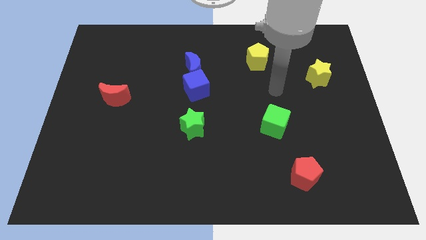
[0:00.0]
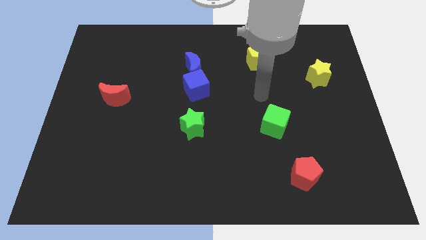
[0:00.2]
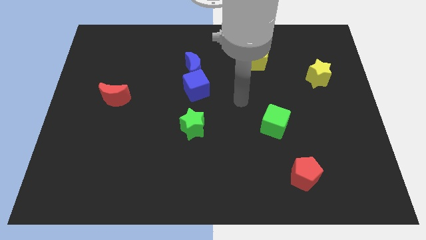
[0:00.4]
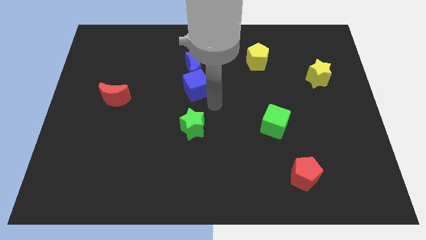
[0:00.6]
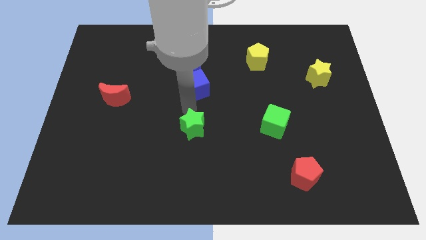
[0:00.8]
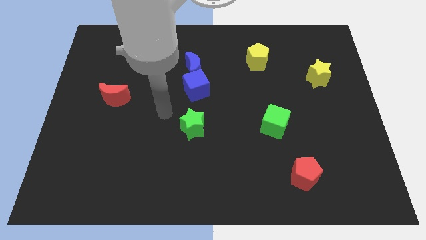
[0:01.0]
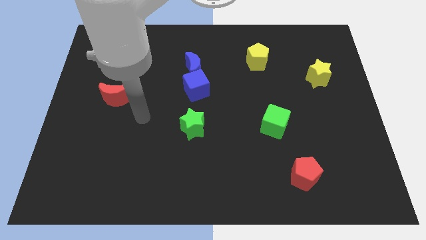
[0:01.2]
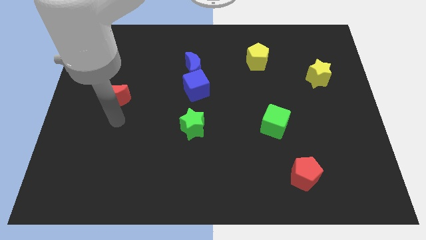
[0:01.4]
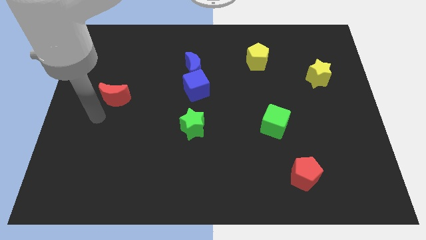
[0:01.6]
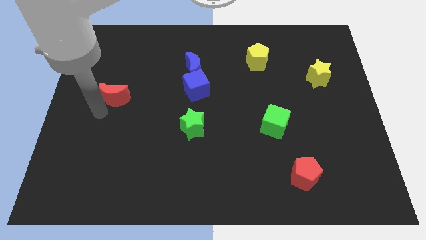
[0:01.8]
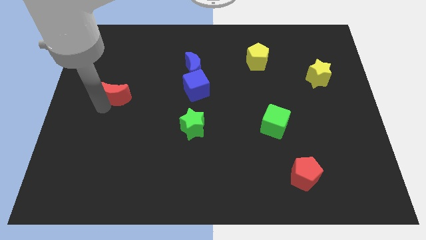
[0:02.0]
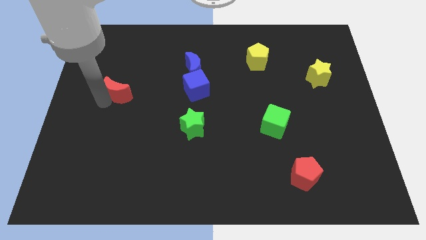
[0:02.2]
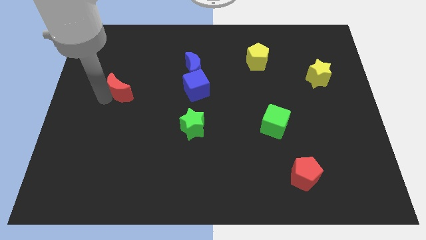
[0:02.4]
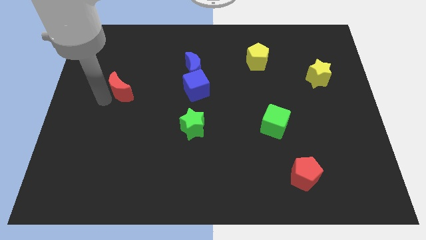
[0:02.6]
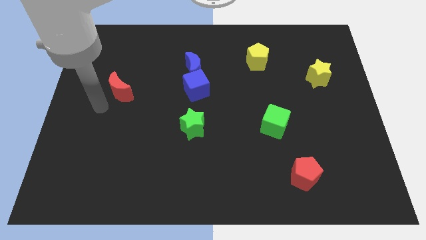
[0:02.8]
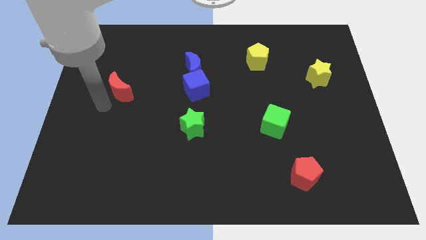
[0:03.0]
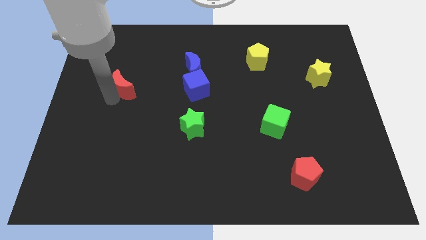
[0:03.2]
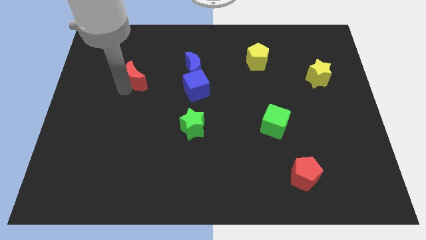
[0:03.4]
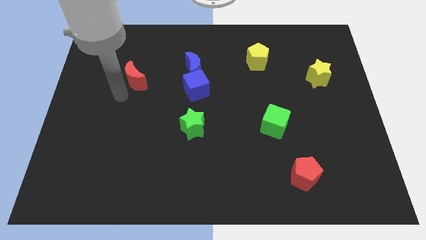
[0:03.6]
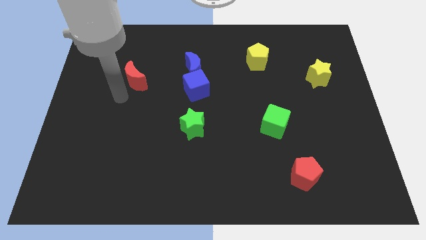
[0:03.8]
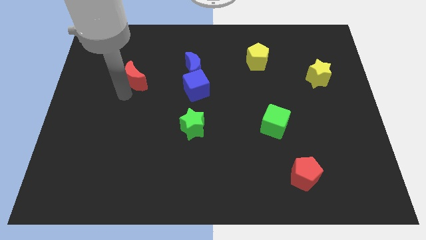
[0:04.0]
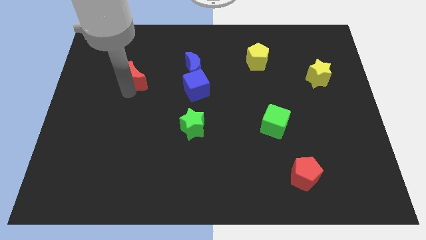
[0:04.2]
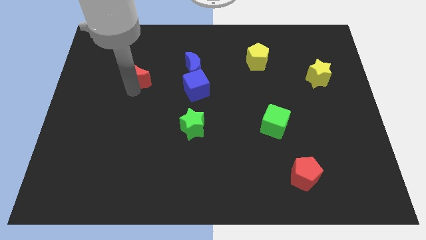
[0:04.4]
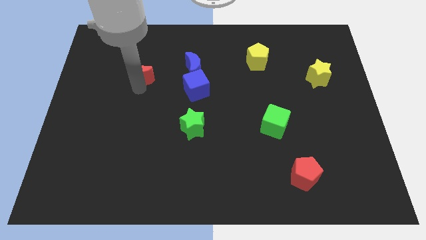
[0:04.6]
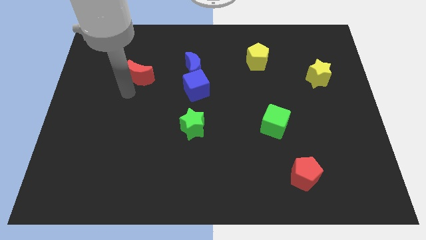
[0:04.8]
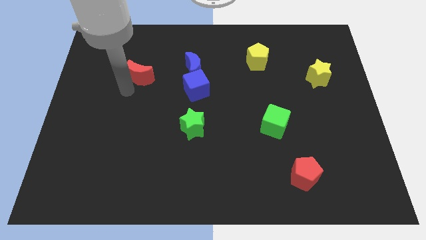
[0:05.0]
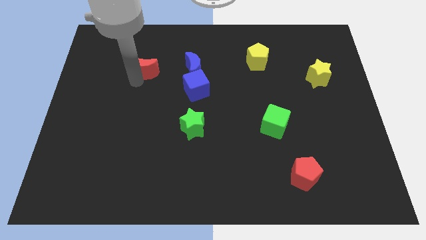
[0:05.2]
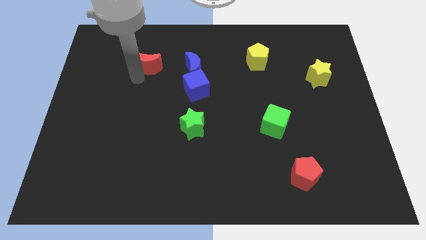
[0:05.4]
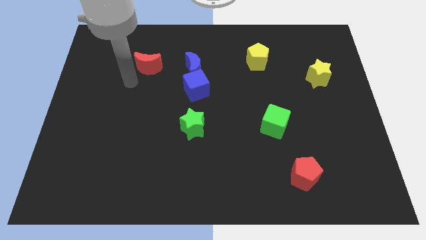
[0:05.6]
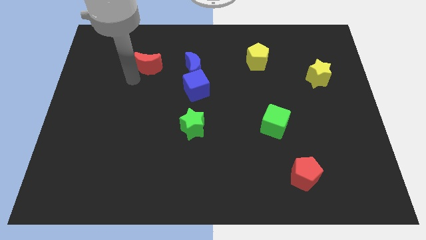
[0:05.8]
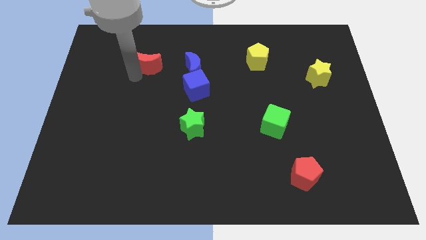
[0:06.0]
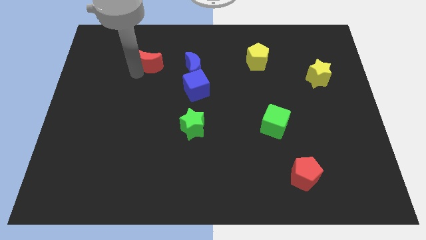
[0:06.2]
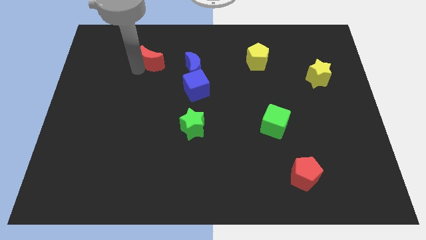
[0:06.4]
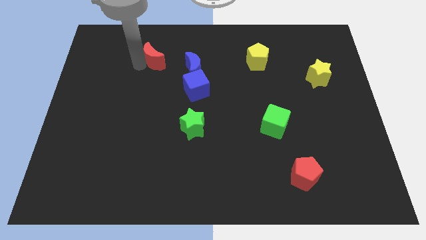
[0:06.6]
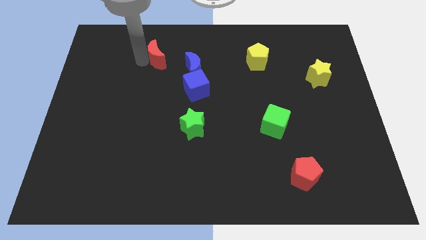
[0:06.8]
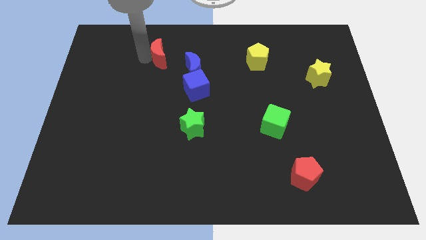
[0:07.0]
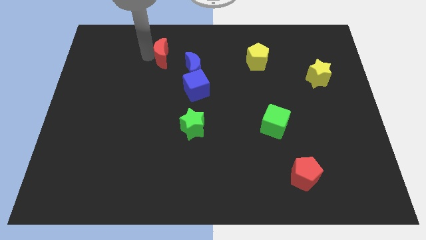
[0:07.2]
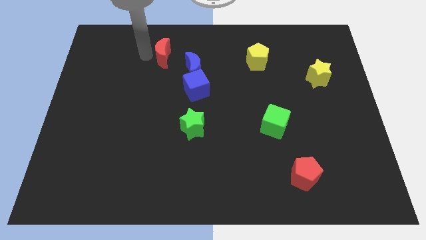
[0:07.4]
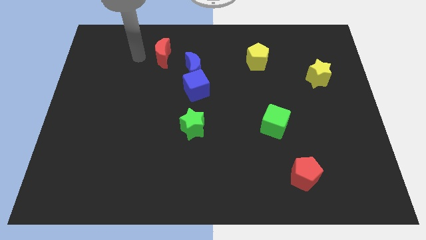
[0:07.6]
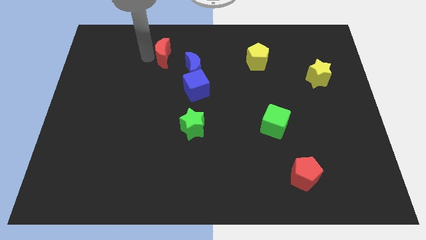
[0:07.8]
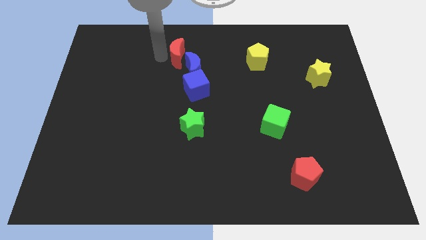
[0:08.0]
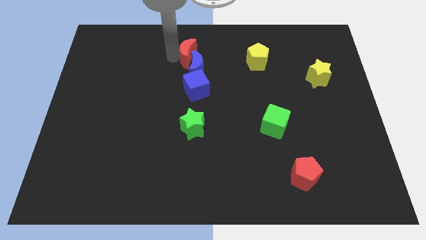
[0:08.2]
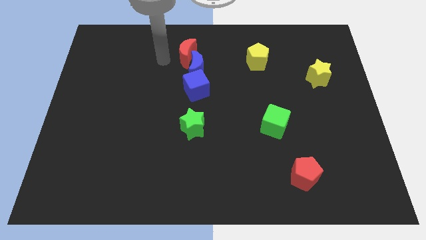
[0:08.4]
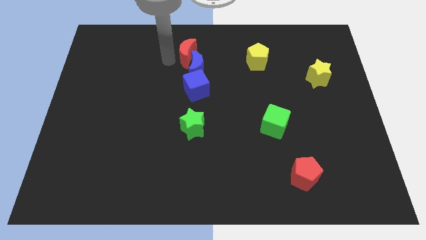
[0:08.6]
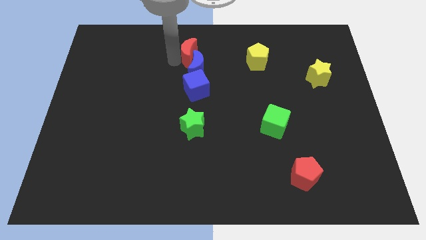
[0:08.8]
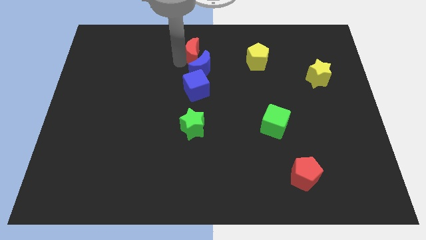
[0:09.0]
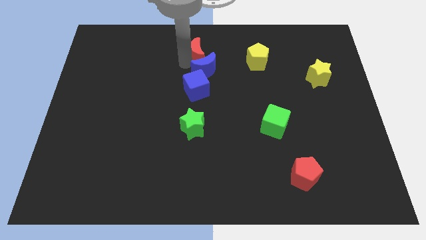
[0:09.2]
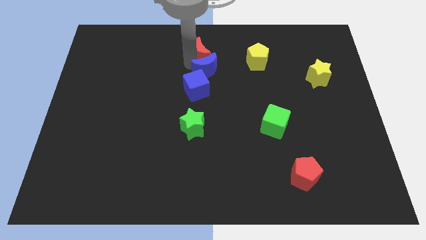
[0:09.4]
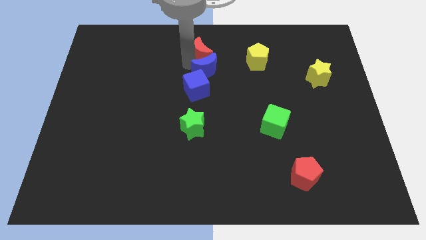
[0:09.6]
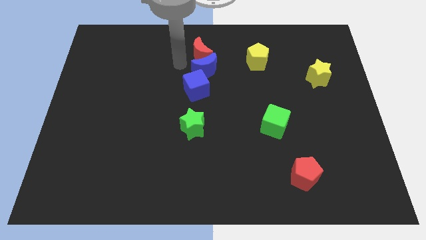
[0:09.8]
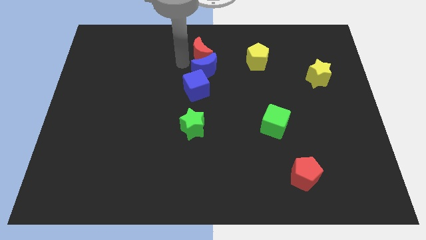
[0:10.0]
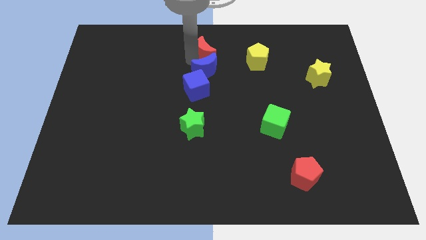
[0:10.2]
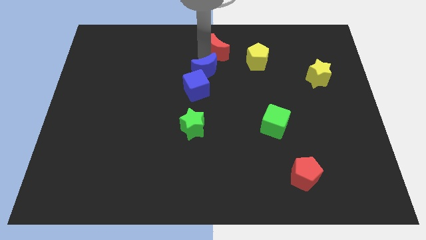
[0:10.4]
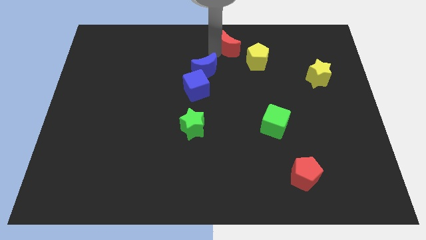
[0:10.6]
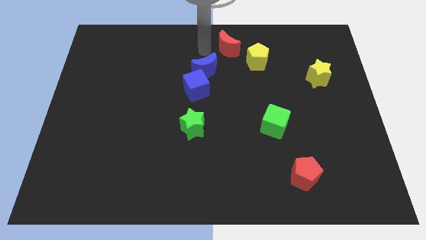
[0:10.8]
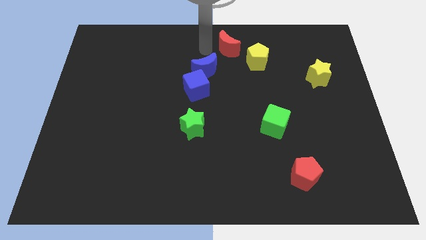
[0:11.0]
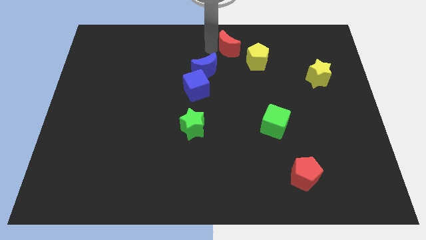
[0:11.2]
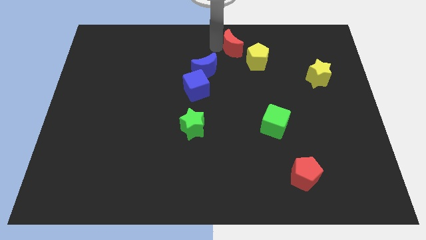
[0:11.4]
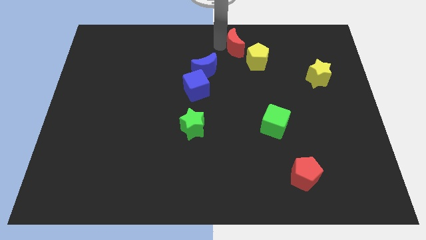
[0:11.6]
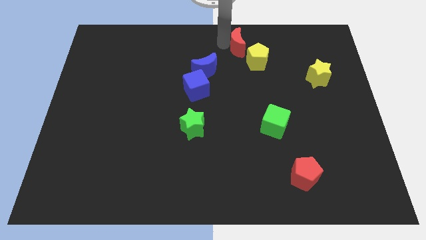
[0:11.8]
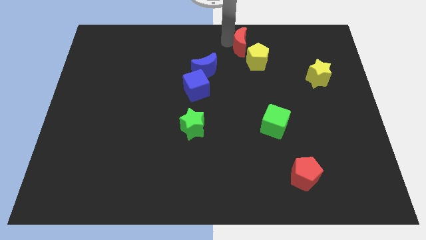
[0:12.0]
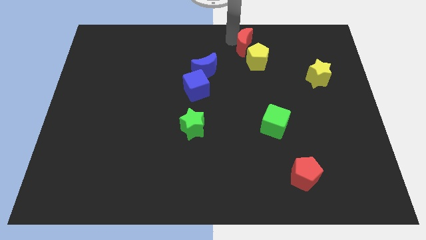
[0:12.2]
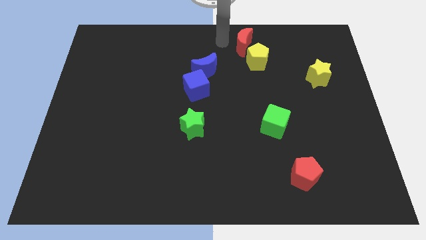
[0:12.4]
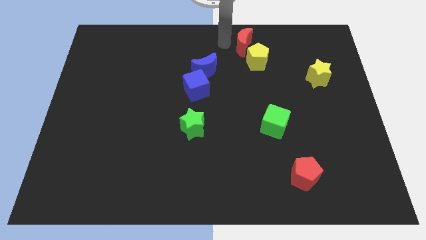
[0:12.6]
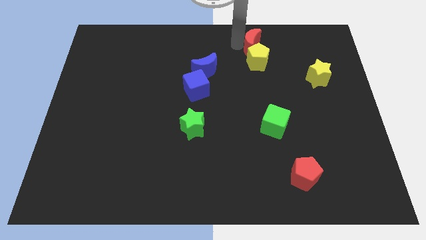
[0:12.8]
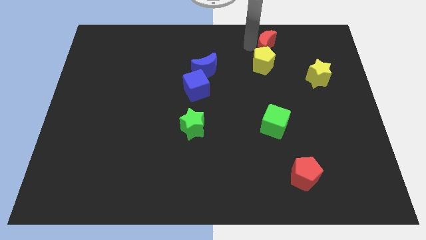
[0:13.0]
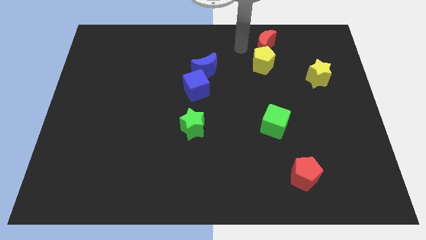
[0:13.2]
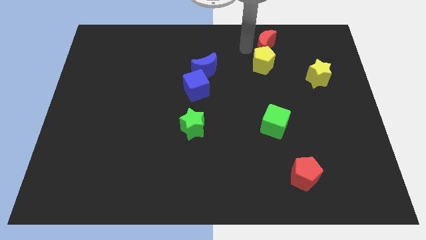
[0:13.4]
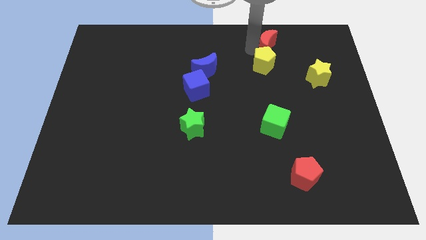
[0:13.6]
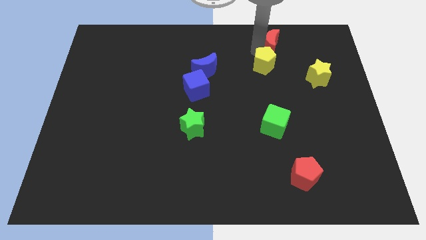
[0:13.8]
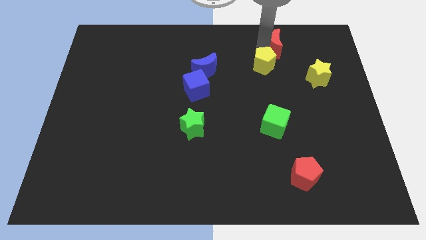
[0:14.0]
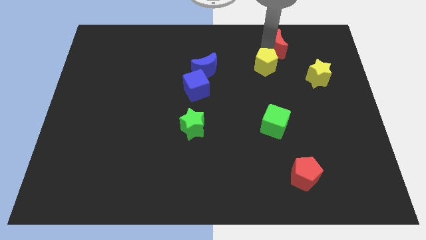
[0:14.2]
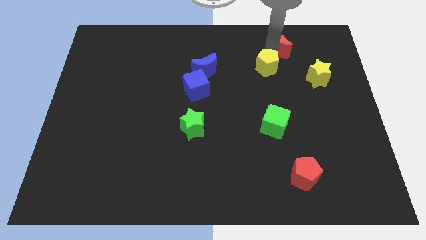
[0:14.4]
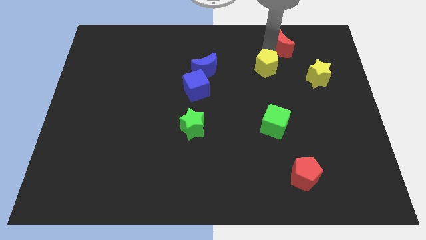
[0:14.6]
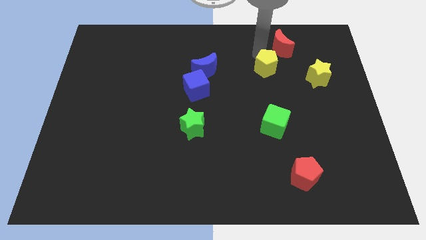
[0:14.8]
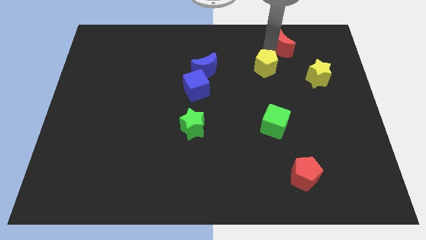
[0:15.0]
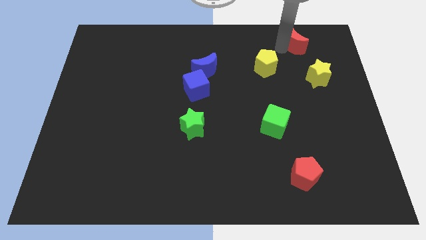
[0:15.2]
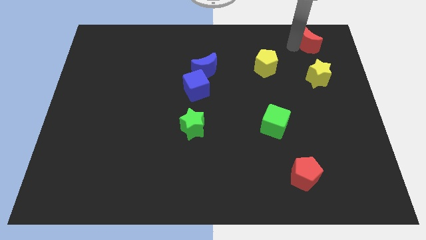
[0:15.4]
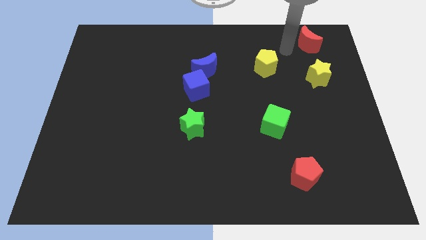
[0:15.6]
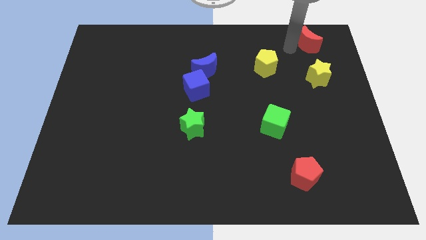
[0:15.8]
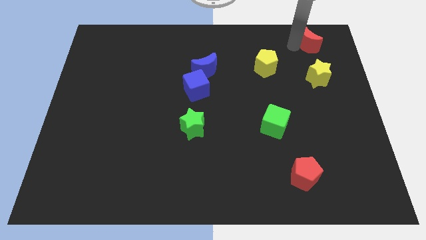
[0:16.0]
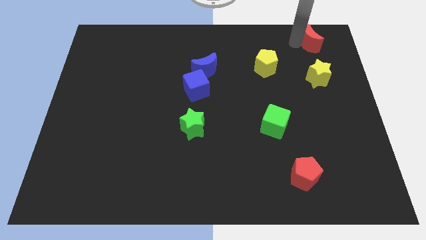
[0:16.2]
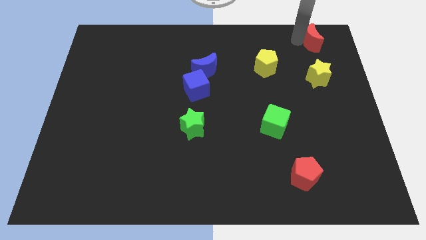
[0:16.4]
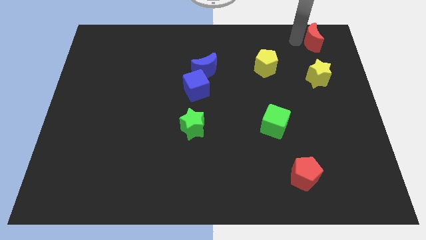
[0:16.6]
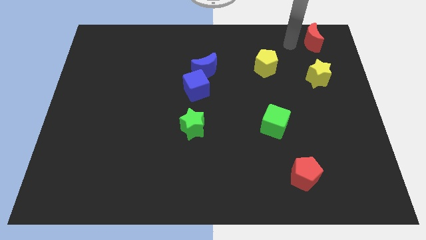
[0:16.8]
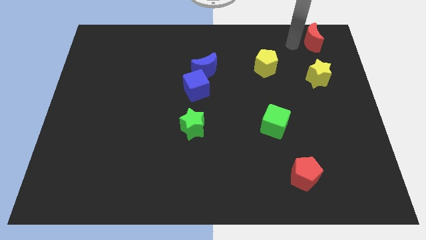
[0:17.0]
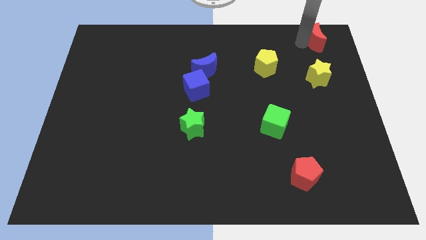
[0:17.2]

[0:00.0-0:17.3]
put the red moon to the upper right corner
